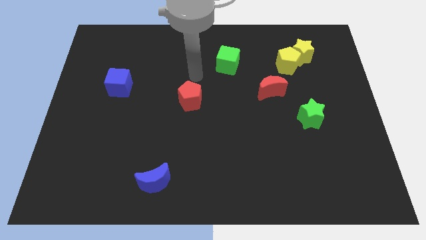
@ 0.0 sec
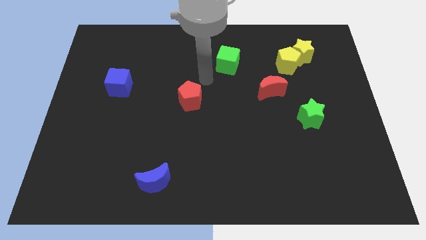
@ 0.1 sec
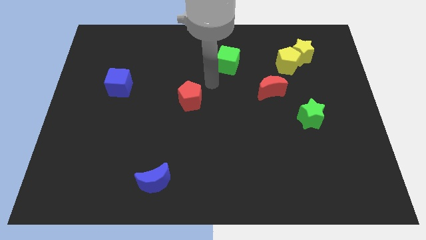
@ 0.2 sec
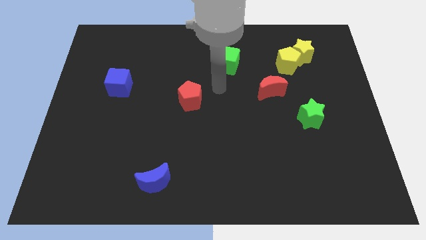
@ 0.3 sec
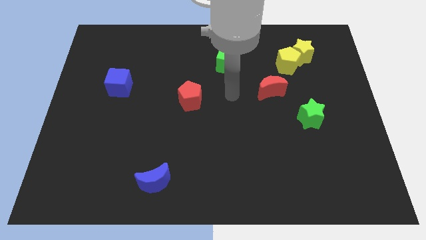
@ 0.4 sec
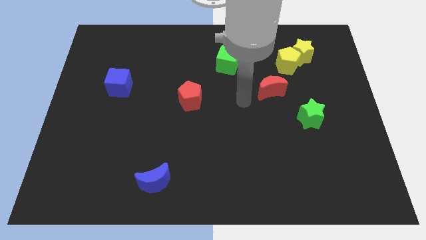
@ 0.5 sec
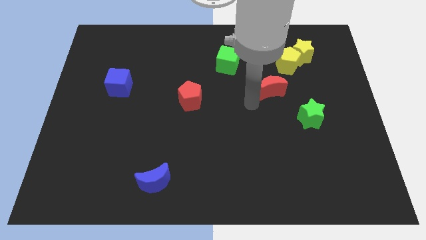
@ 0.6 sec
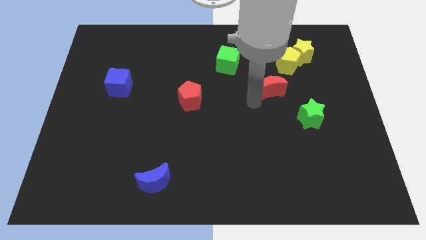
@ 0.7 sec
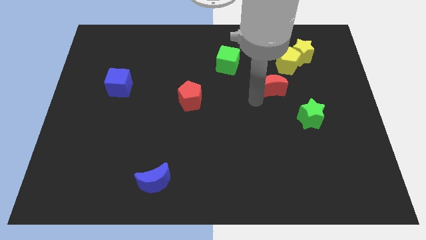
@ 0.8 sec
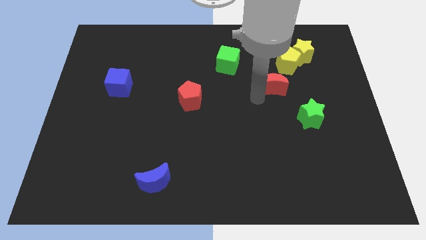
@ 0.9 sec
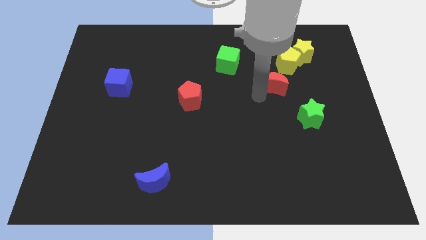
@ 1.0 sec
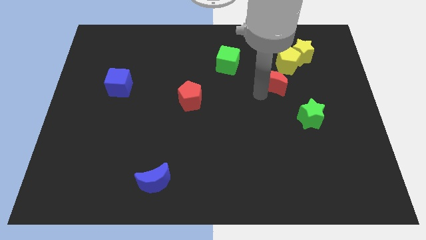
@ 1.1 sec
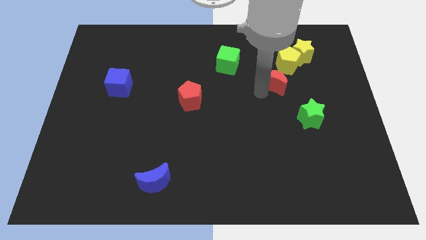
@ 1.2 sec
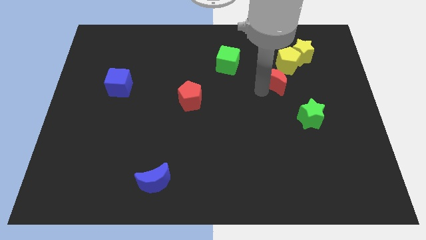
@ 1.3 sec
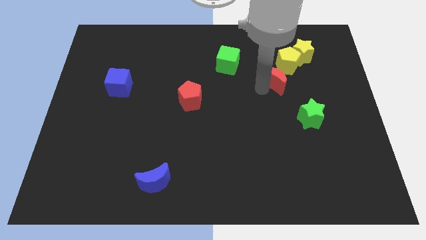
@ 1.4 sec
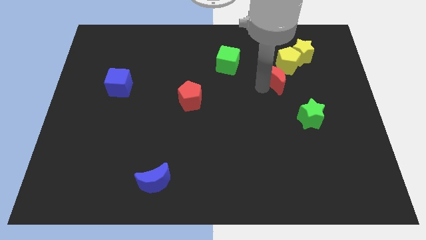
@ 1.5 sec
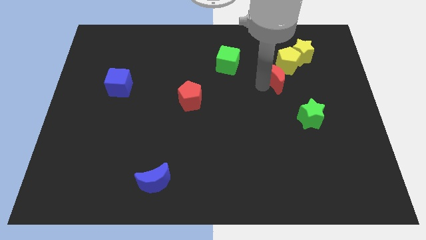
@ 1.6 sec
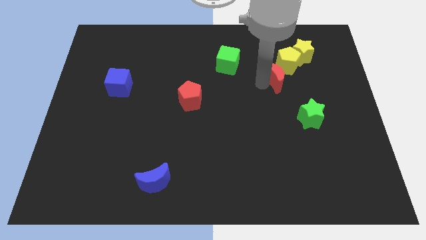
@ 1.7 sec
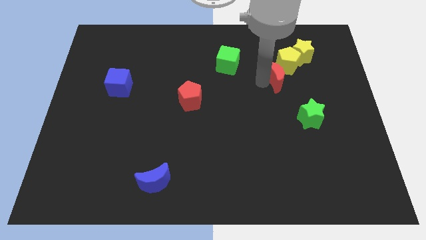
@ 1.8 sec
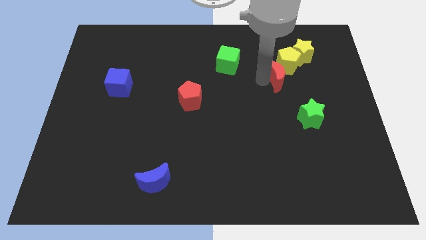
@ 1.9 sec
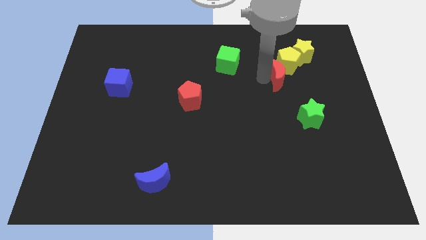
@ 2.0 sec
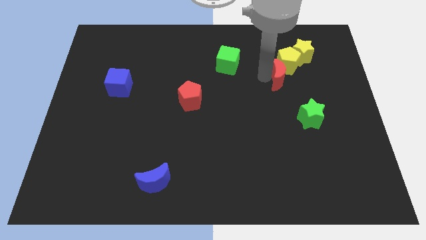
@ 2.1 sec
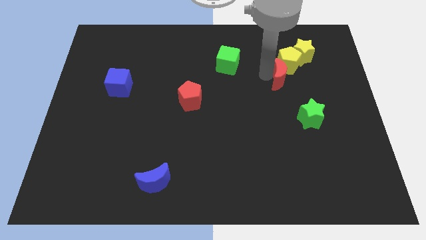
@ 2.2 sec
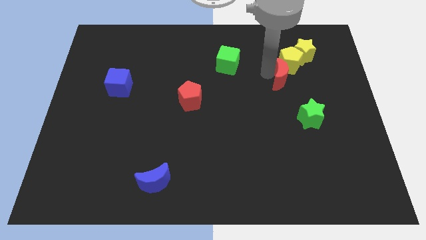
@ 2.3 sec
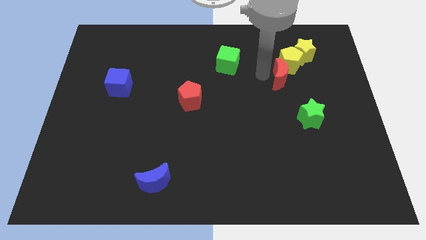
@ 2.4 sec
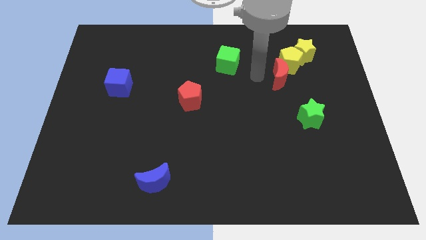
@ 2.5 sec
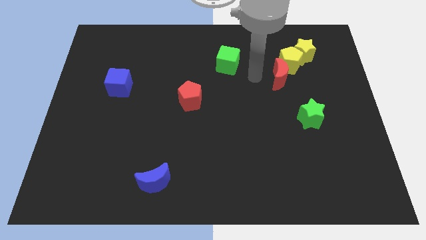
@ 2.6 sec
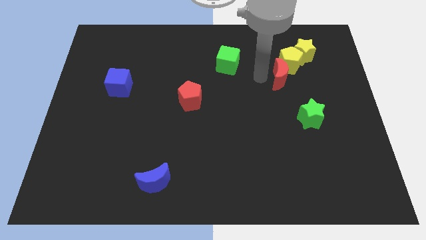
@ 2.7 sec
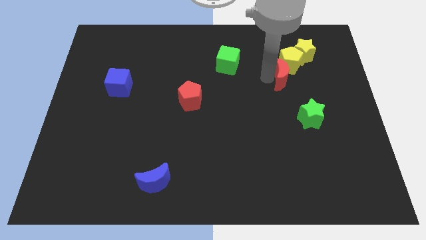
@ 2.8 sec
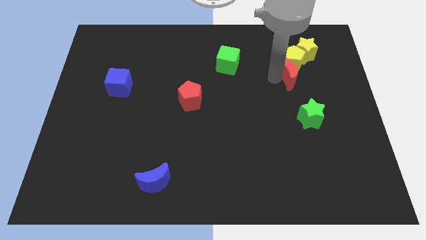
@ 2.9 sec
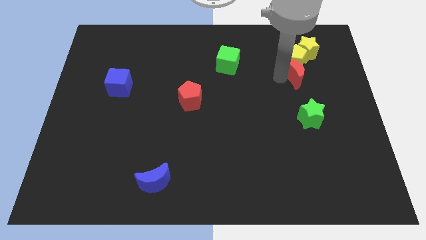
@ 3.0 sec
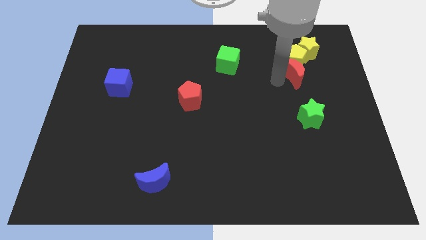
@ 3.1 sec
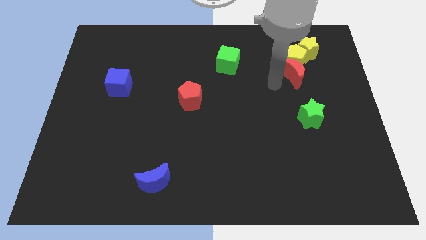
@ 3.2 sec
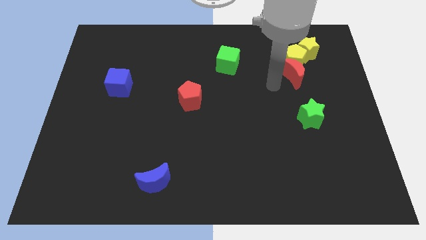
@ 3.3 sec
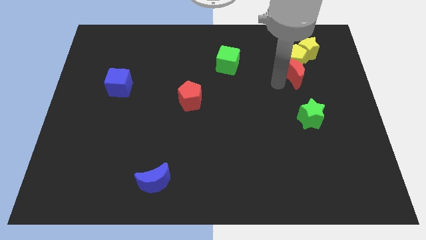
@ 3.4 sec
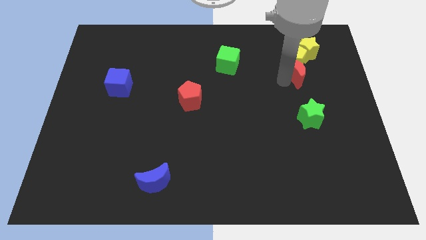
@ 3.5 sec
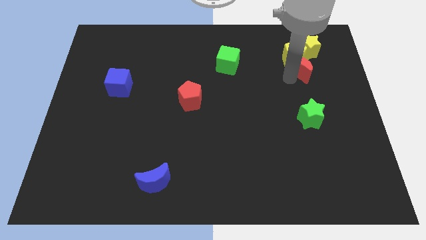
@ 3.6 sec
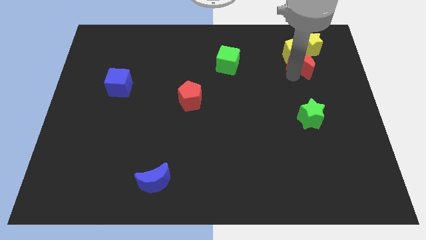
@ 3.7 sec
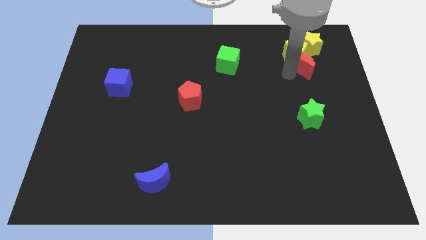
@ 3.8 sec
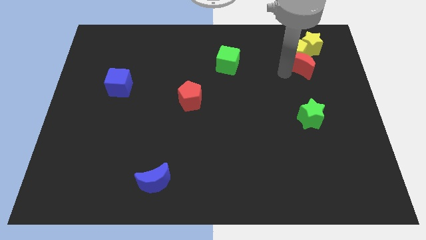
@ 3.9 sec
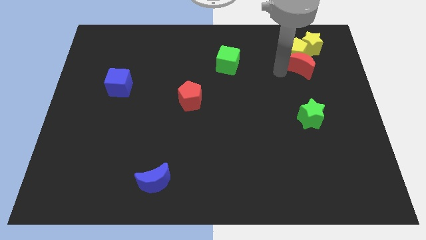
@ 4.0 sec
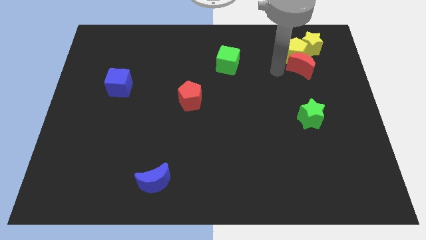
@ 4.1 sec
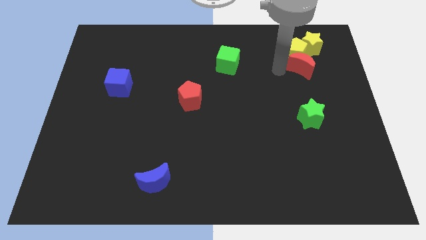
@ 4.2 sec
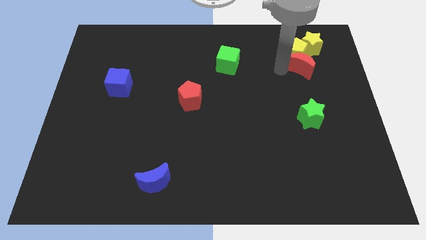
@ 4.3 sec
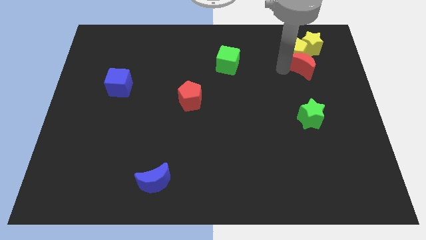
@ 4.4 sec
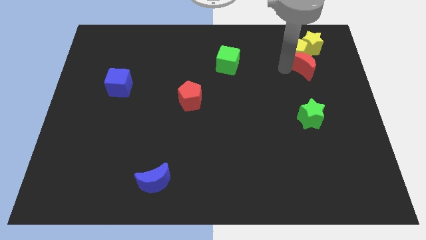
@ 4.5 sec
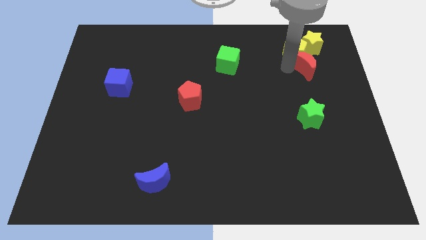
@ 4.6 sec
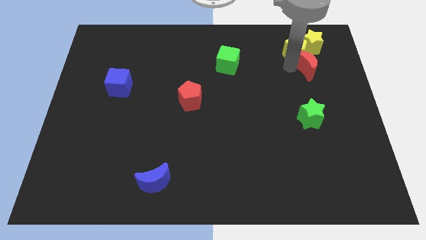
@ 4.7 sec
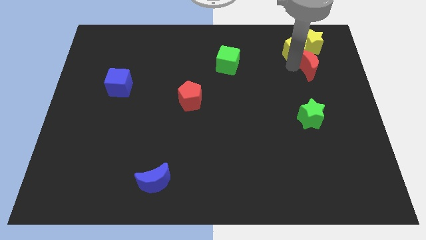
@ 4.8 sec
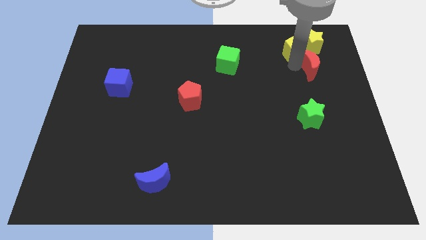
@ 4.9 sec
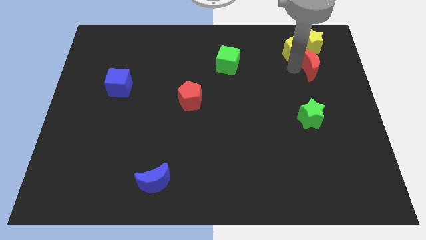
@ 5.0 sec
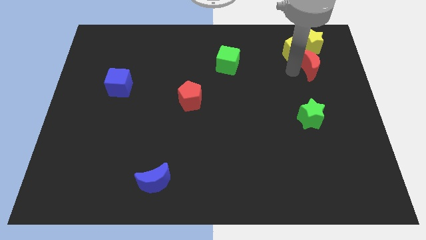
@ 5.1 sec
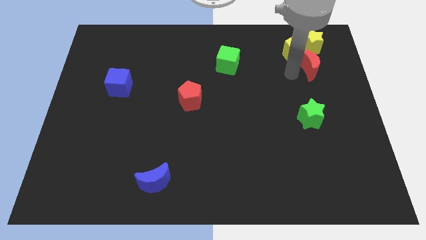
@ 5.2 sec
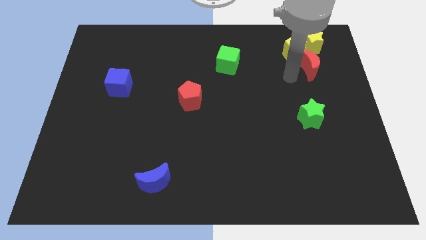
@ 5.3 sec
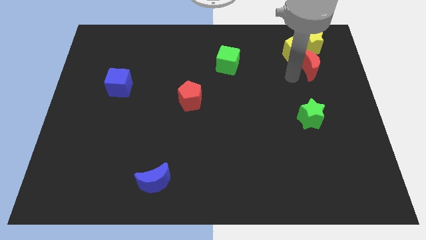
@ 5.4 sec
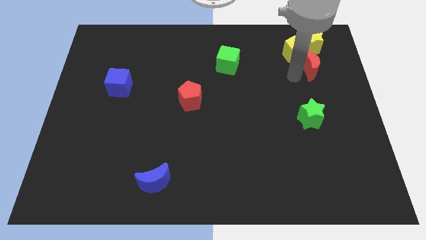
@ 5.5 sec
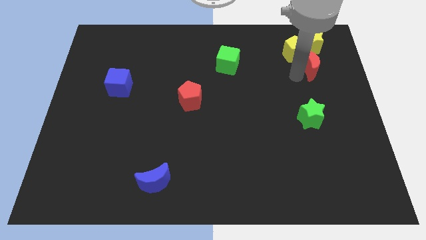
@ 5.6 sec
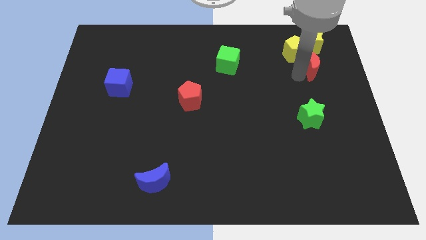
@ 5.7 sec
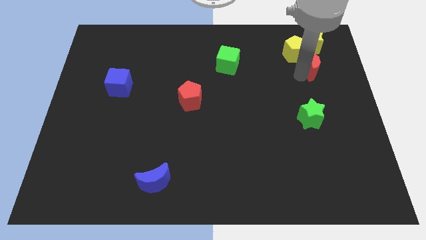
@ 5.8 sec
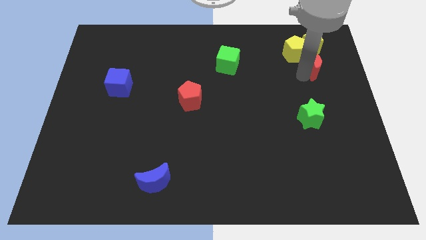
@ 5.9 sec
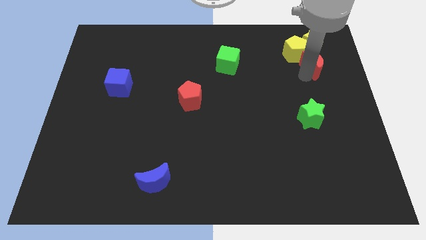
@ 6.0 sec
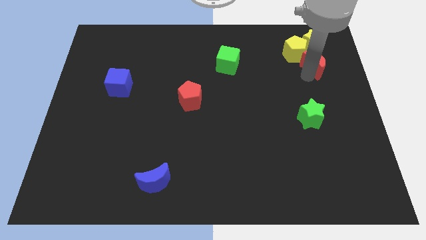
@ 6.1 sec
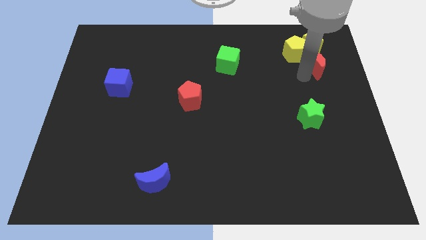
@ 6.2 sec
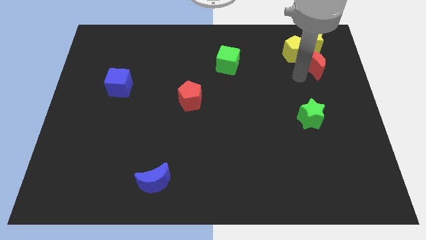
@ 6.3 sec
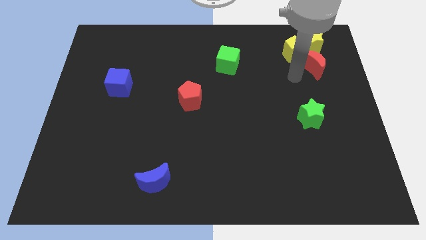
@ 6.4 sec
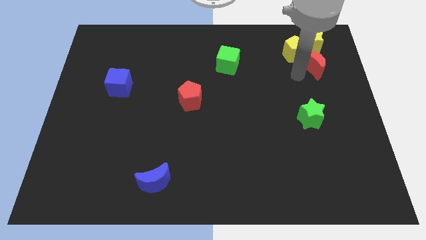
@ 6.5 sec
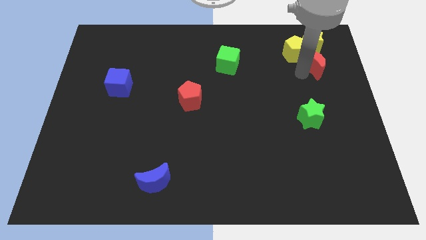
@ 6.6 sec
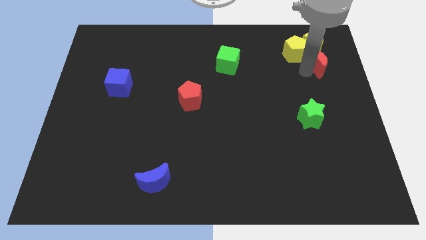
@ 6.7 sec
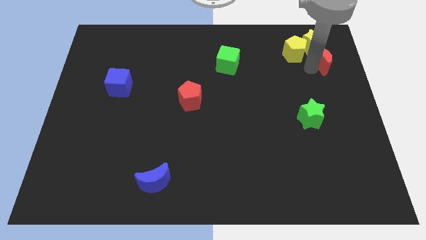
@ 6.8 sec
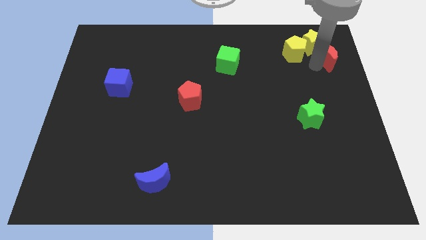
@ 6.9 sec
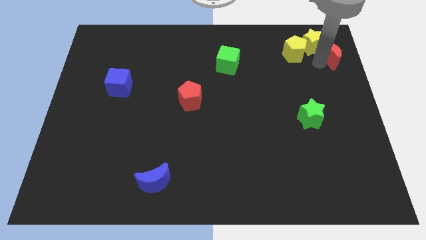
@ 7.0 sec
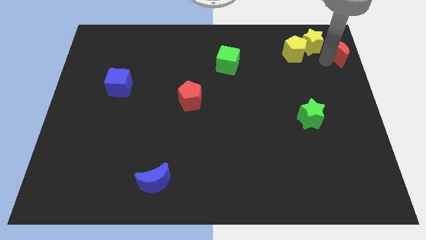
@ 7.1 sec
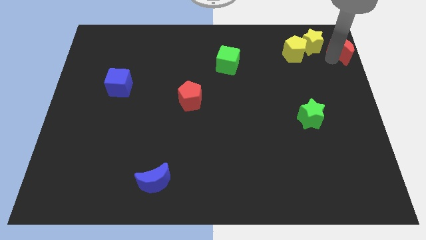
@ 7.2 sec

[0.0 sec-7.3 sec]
put the red moon to the top right of the board
